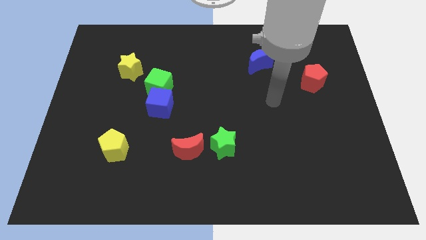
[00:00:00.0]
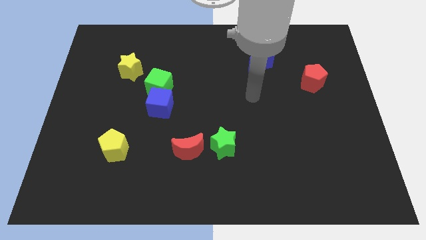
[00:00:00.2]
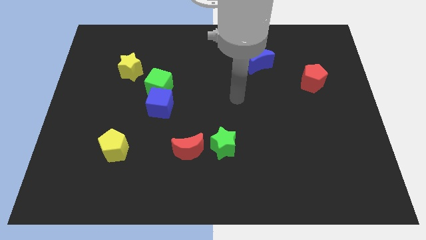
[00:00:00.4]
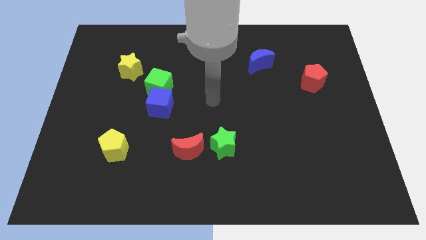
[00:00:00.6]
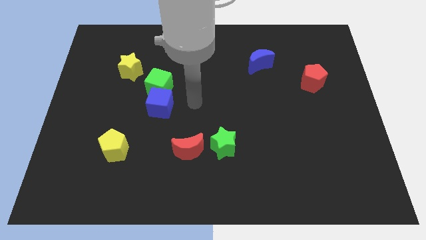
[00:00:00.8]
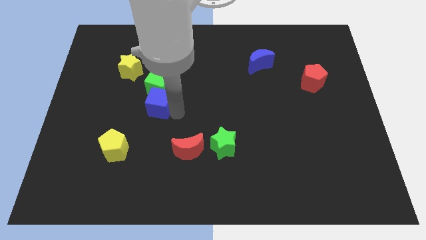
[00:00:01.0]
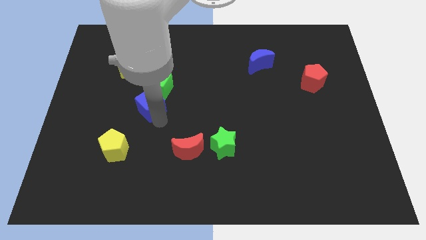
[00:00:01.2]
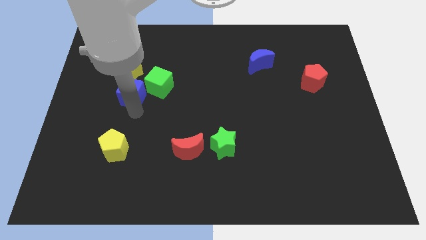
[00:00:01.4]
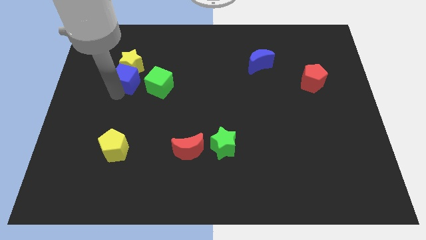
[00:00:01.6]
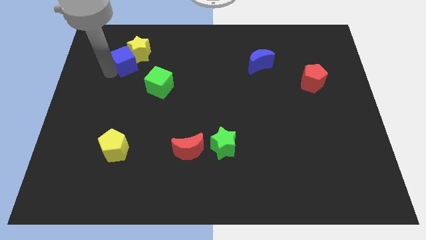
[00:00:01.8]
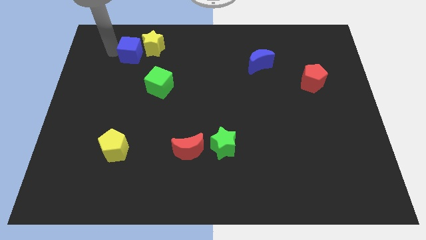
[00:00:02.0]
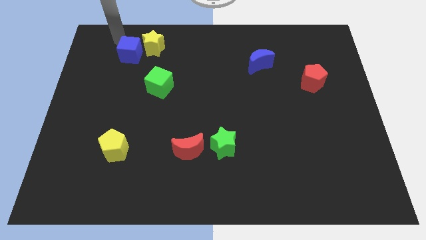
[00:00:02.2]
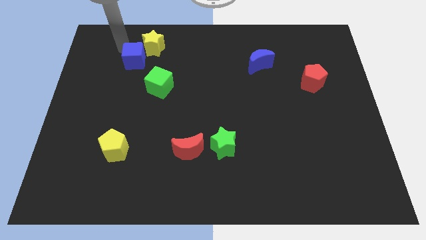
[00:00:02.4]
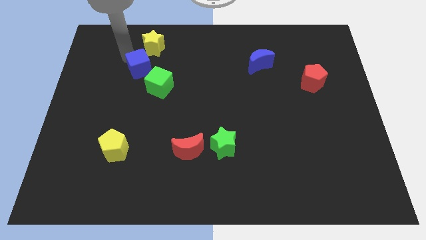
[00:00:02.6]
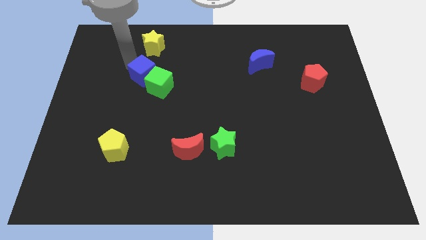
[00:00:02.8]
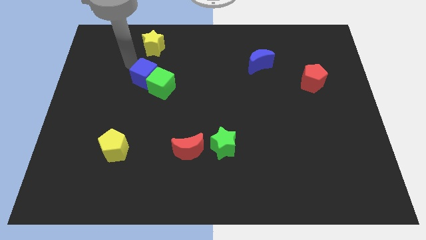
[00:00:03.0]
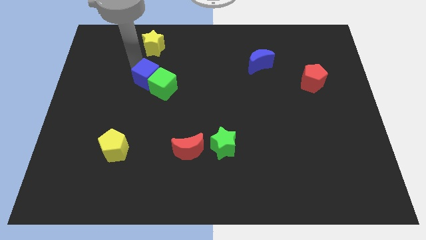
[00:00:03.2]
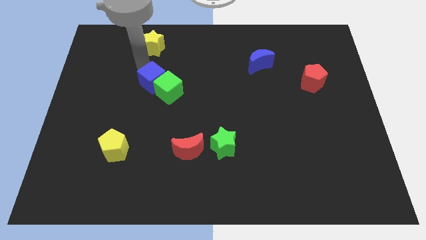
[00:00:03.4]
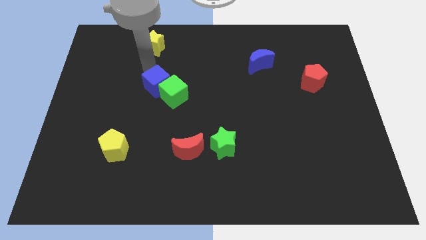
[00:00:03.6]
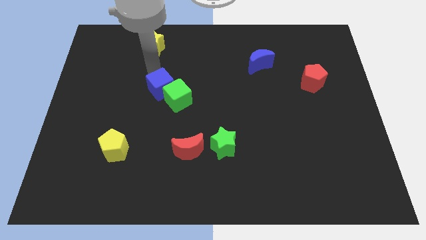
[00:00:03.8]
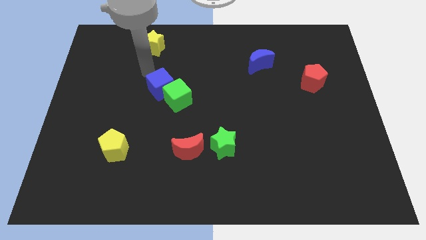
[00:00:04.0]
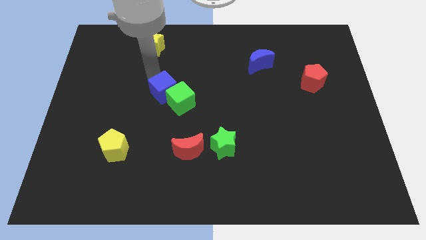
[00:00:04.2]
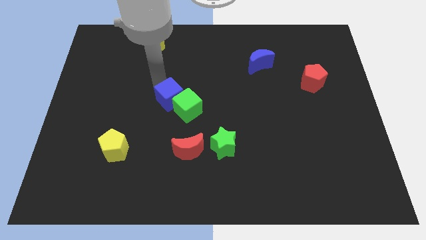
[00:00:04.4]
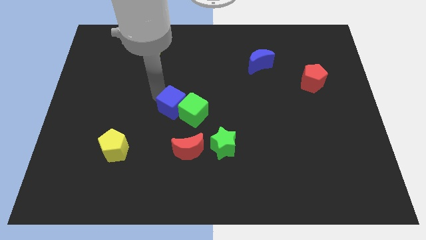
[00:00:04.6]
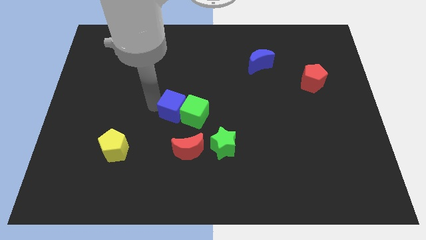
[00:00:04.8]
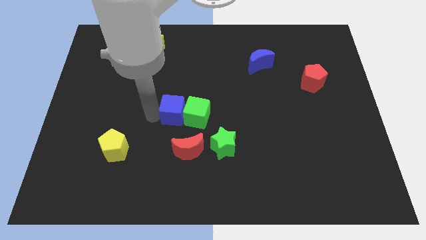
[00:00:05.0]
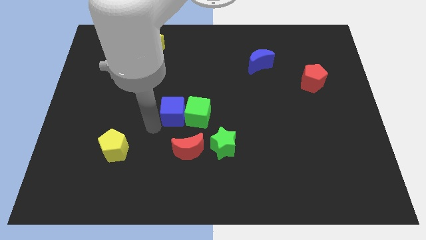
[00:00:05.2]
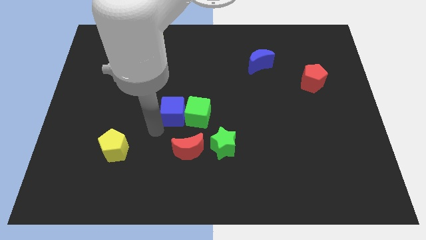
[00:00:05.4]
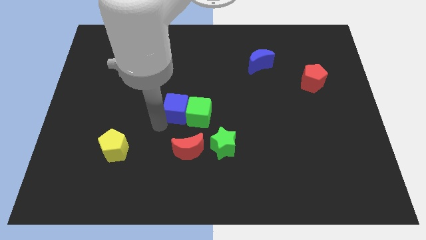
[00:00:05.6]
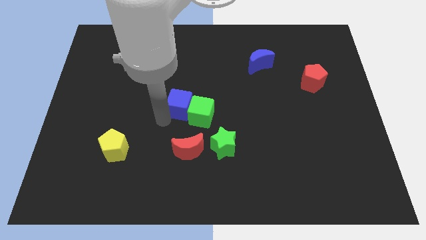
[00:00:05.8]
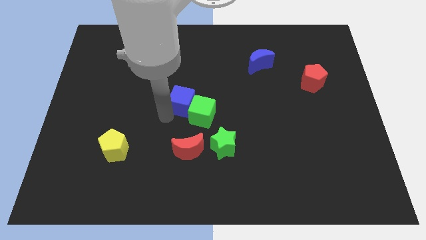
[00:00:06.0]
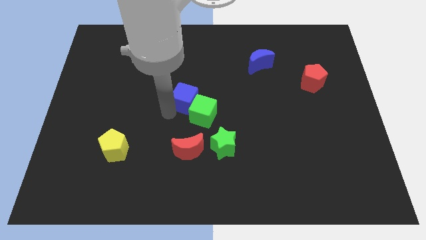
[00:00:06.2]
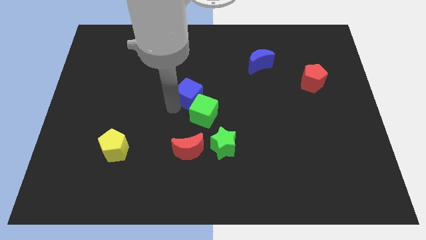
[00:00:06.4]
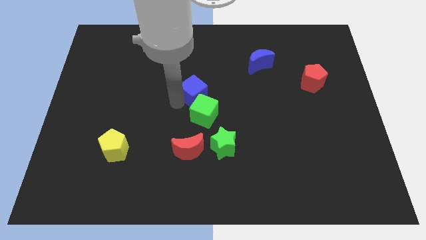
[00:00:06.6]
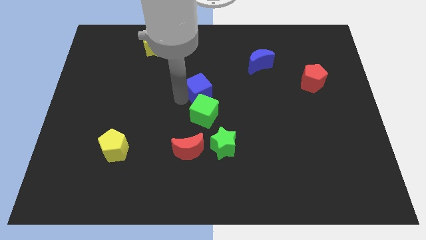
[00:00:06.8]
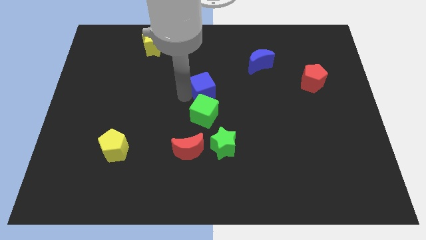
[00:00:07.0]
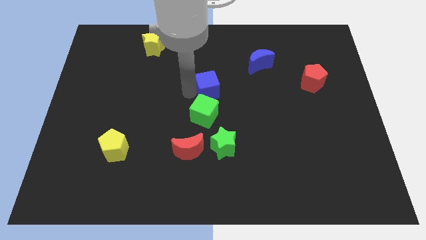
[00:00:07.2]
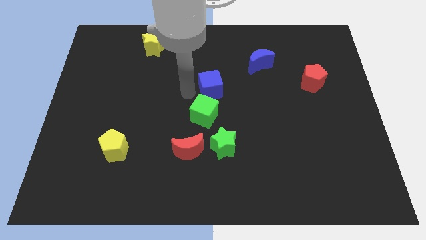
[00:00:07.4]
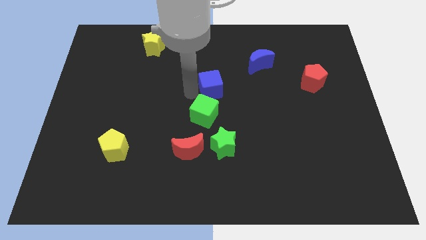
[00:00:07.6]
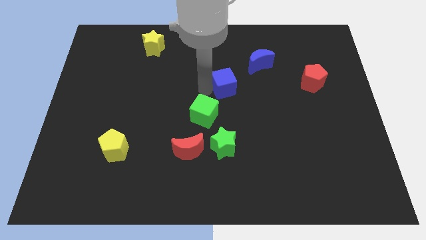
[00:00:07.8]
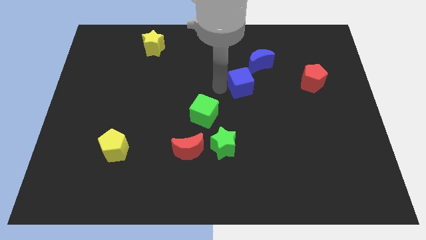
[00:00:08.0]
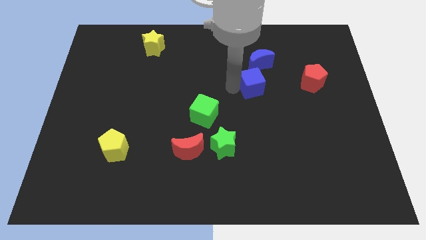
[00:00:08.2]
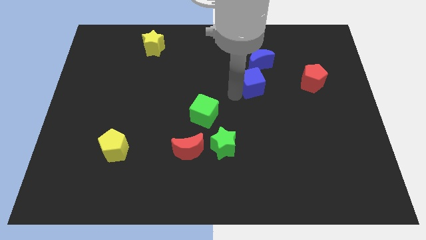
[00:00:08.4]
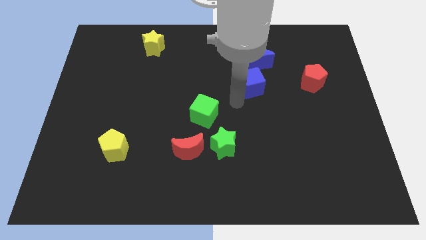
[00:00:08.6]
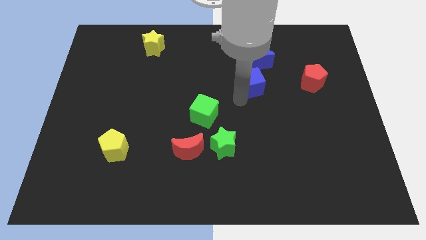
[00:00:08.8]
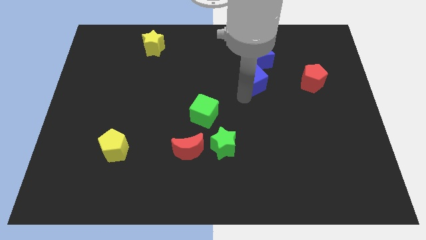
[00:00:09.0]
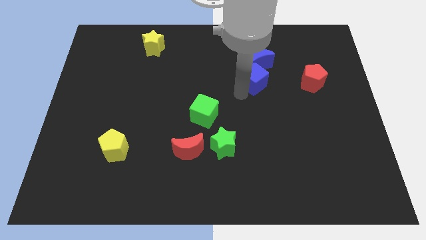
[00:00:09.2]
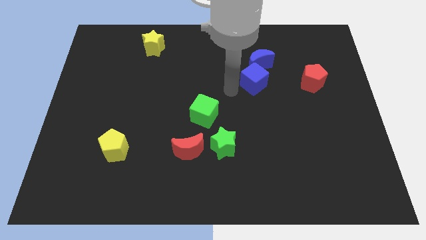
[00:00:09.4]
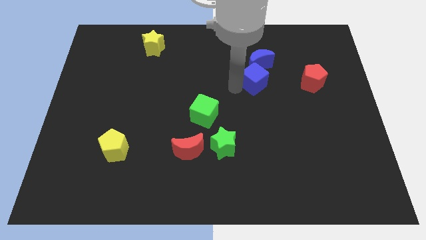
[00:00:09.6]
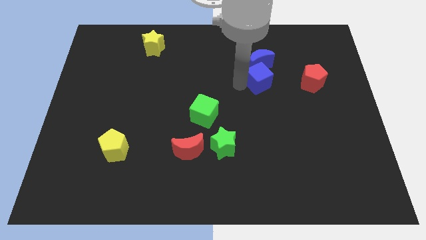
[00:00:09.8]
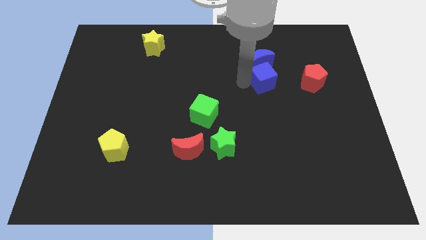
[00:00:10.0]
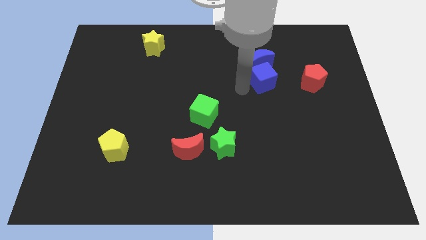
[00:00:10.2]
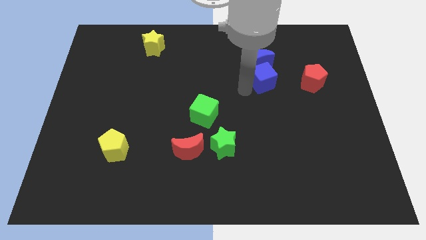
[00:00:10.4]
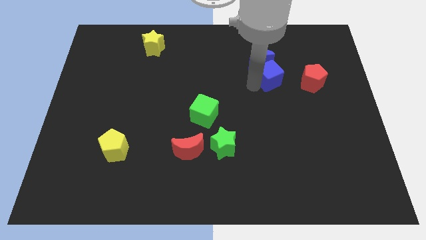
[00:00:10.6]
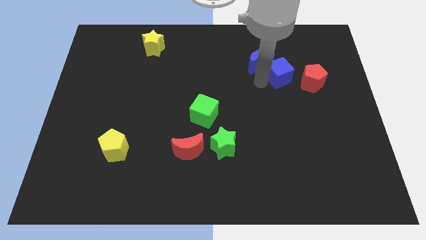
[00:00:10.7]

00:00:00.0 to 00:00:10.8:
slide the blue cube right of the blue moon

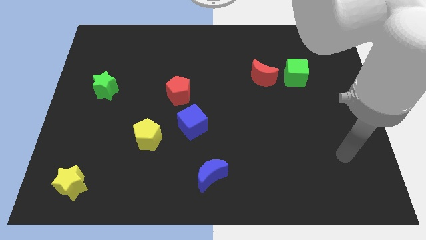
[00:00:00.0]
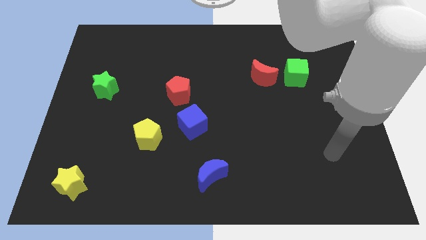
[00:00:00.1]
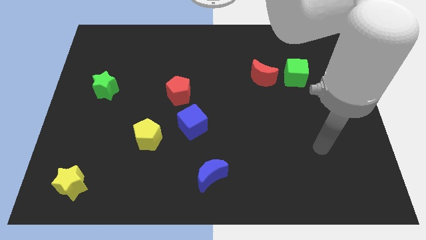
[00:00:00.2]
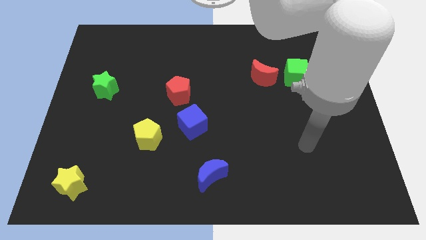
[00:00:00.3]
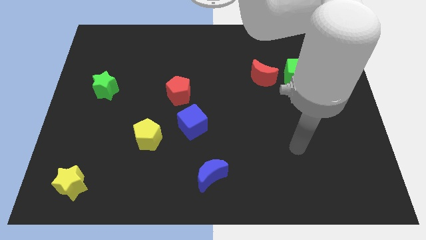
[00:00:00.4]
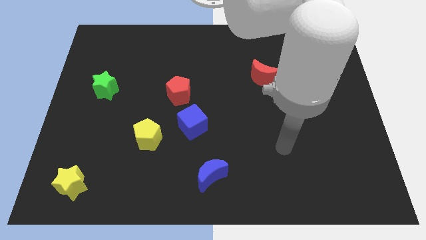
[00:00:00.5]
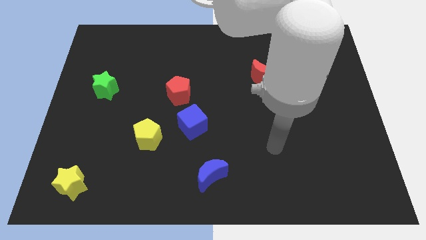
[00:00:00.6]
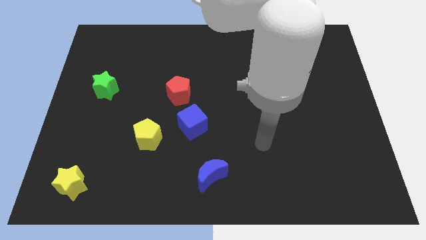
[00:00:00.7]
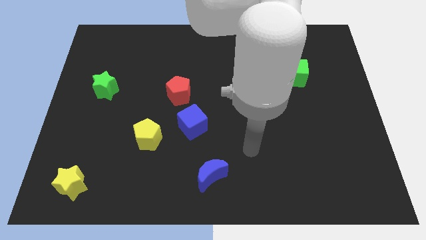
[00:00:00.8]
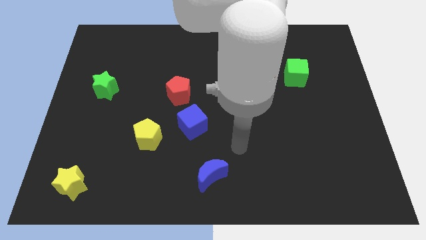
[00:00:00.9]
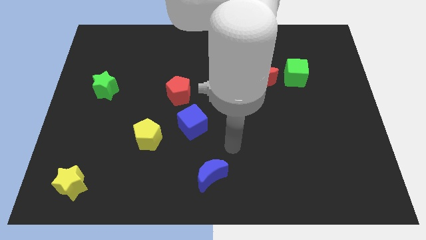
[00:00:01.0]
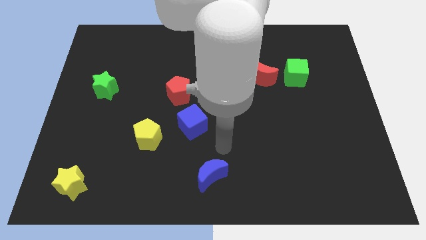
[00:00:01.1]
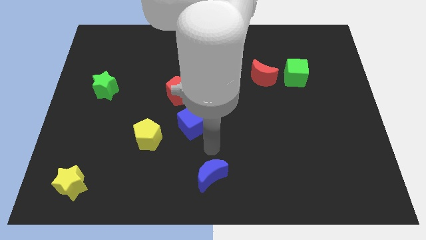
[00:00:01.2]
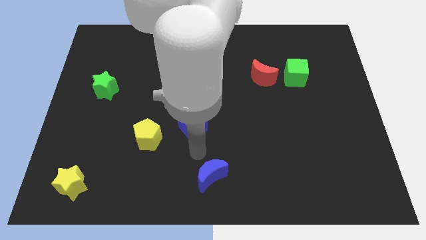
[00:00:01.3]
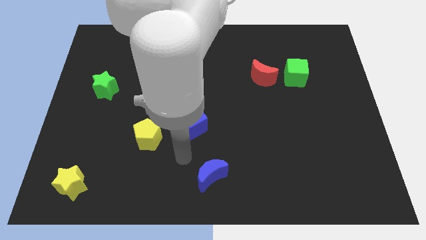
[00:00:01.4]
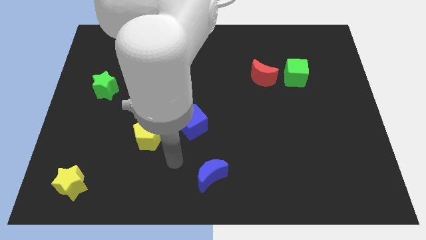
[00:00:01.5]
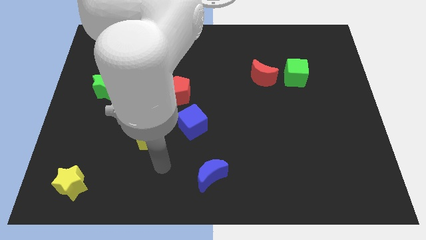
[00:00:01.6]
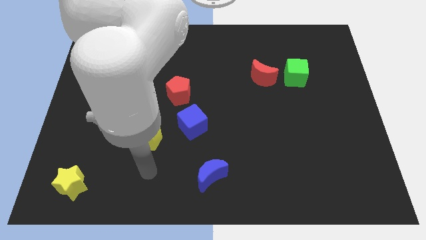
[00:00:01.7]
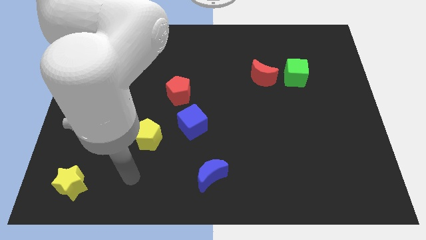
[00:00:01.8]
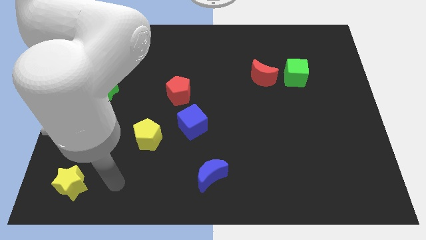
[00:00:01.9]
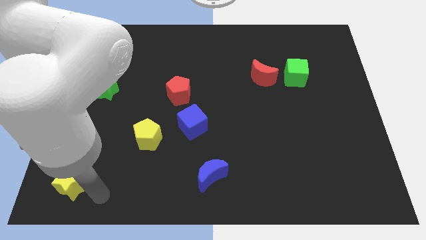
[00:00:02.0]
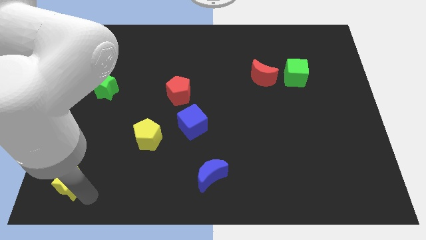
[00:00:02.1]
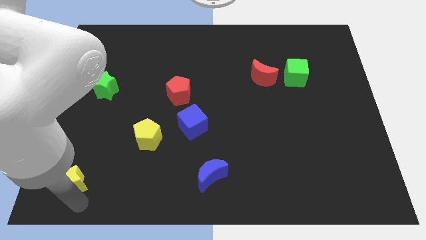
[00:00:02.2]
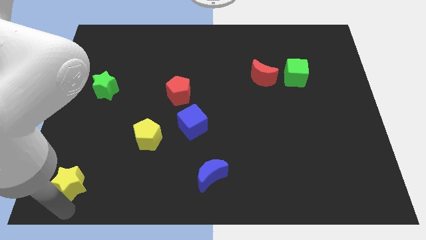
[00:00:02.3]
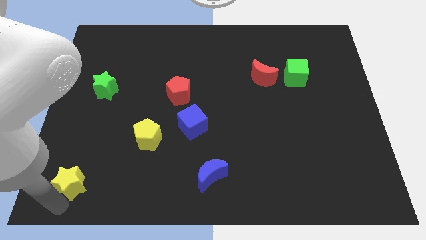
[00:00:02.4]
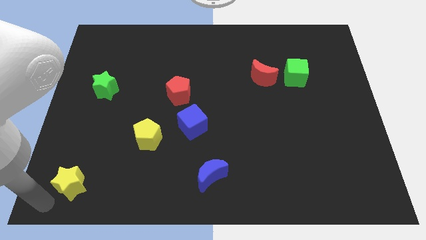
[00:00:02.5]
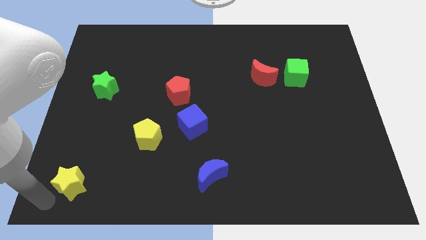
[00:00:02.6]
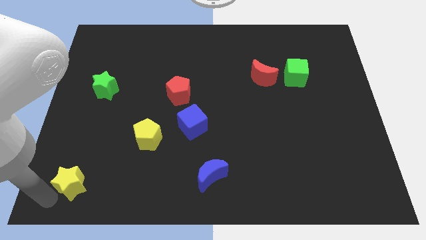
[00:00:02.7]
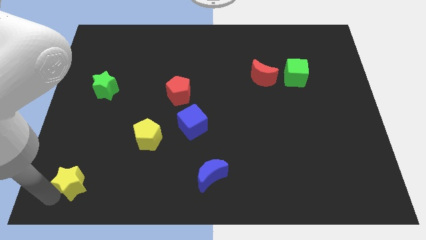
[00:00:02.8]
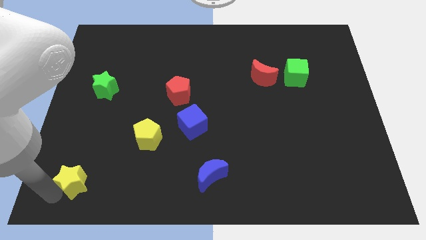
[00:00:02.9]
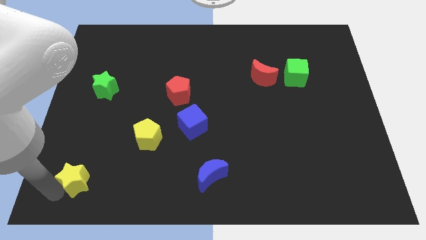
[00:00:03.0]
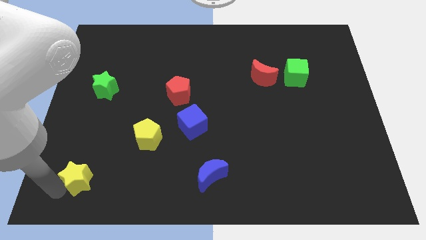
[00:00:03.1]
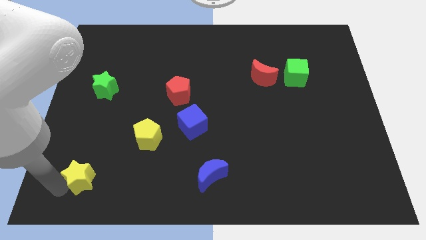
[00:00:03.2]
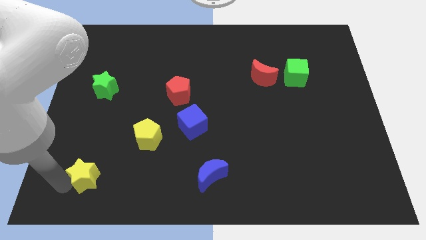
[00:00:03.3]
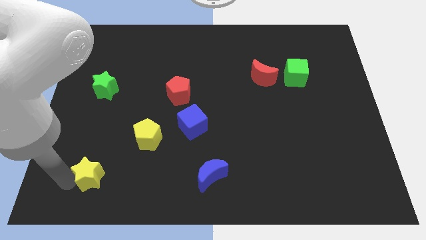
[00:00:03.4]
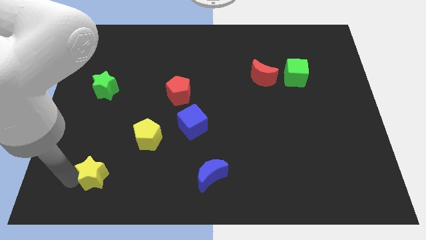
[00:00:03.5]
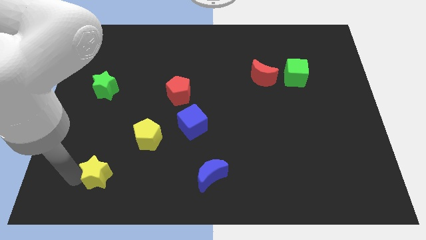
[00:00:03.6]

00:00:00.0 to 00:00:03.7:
push the yellow star to the bottom left of the yellow pentagon
